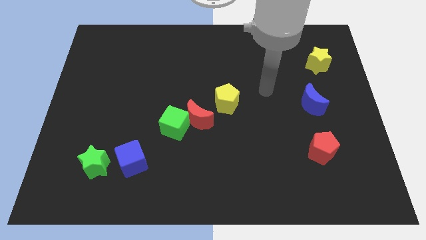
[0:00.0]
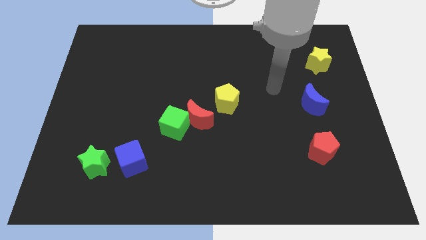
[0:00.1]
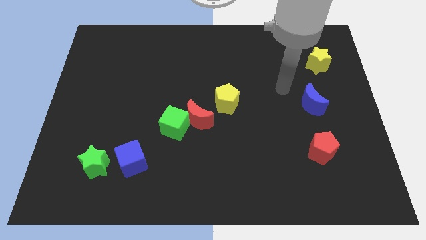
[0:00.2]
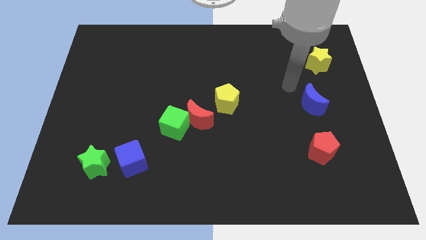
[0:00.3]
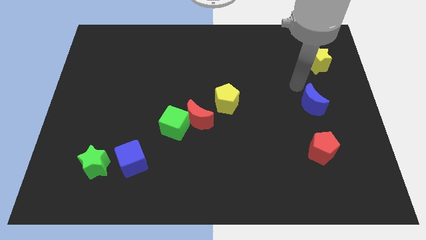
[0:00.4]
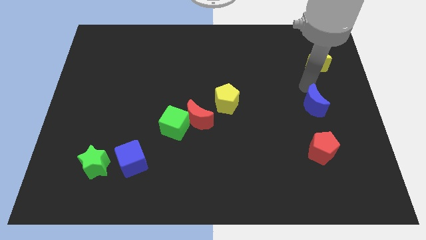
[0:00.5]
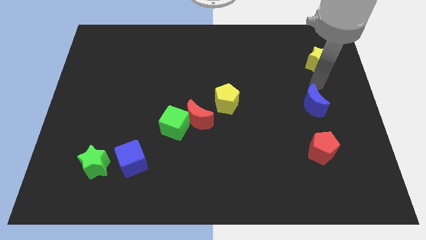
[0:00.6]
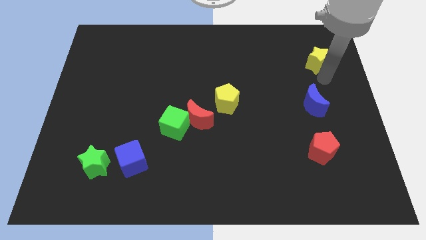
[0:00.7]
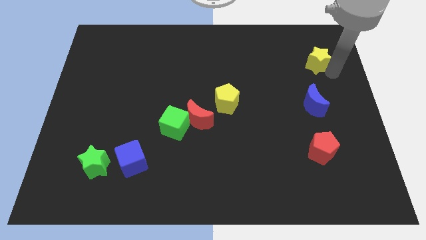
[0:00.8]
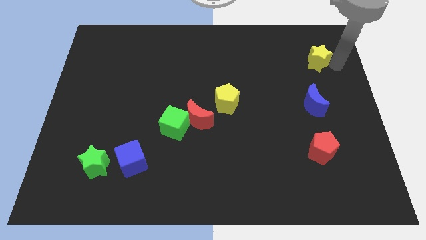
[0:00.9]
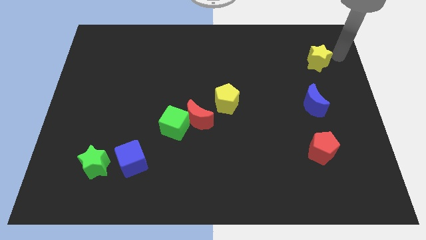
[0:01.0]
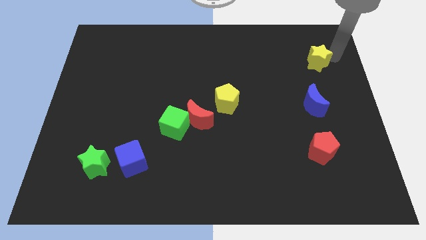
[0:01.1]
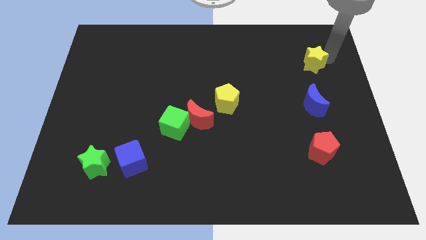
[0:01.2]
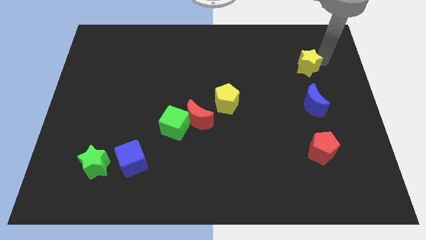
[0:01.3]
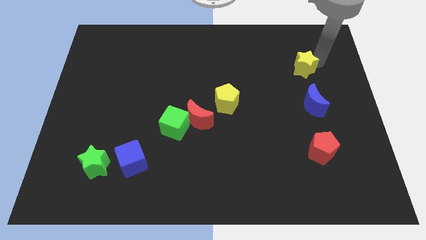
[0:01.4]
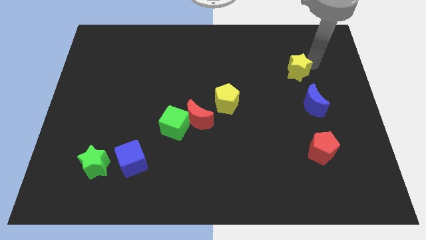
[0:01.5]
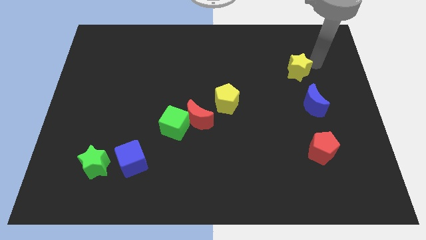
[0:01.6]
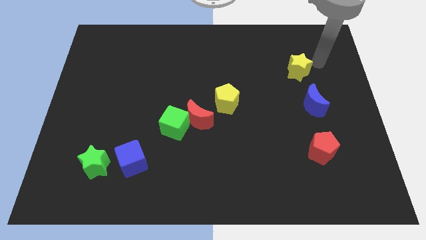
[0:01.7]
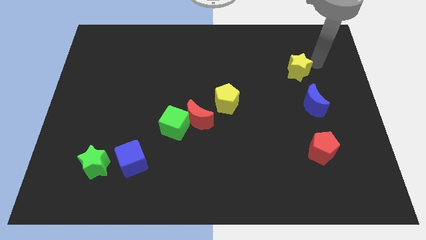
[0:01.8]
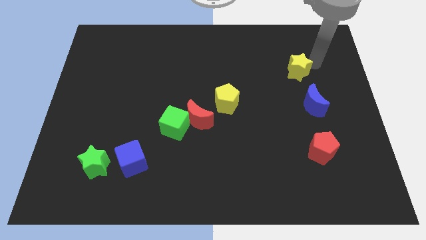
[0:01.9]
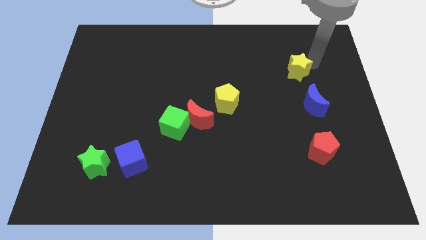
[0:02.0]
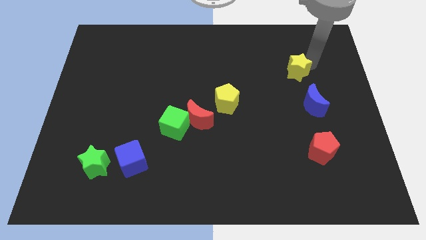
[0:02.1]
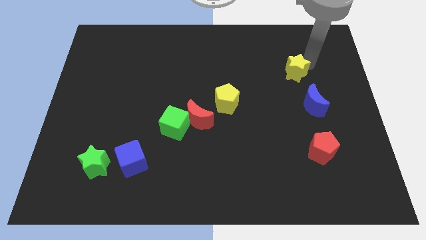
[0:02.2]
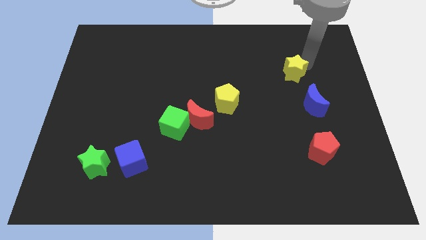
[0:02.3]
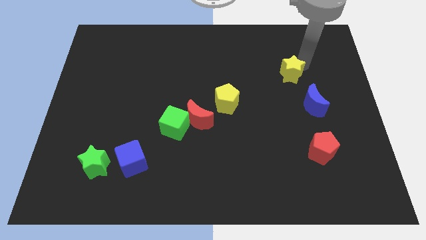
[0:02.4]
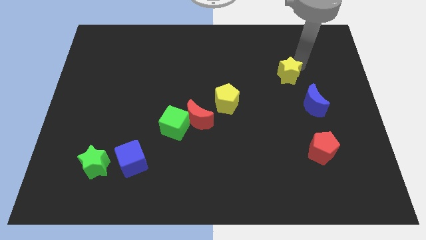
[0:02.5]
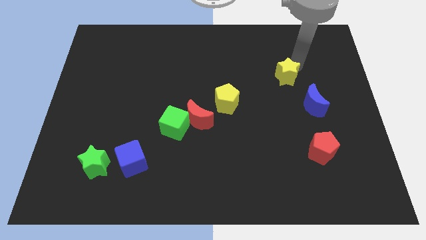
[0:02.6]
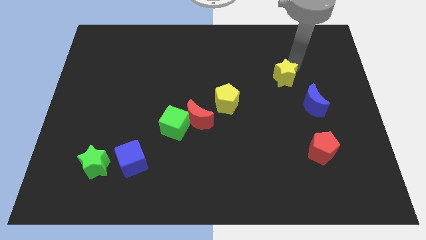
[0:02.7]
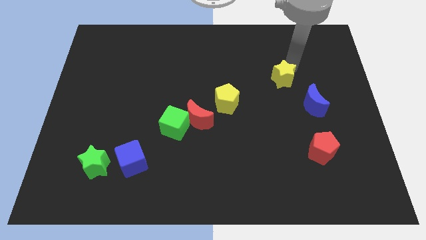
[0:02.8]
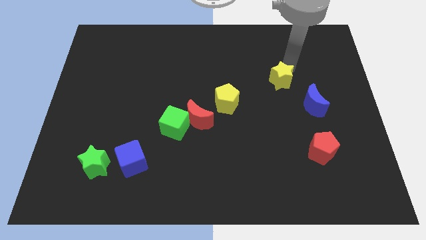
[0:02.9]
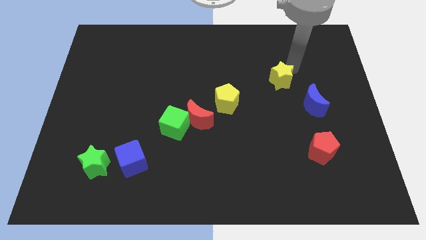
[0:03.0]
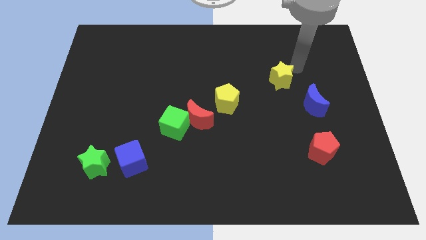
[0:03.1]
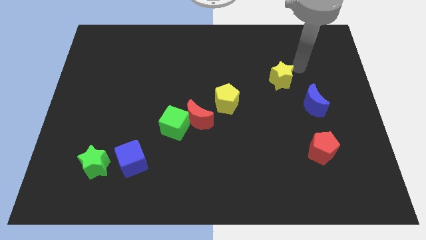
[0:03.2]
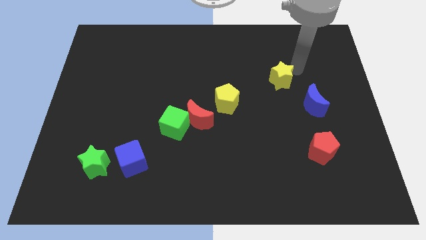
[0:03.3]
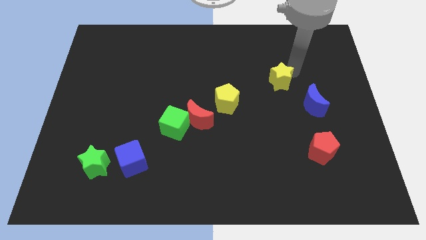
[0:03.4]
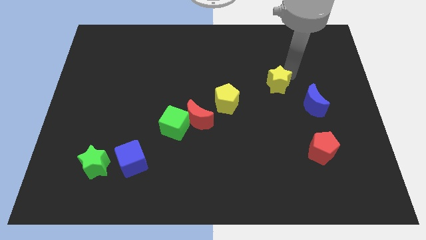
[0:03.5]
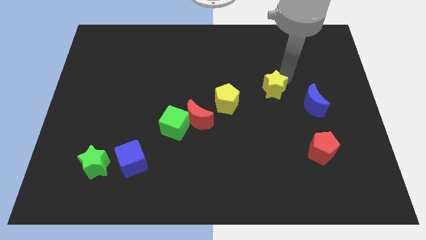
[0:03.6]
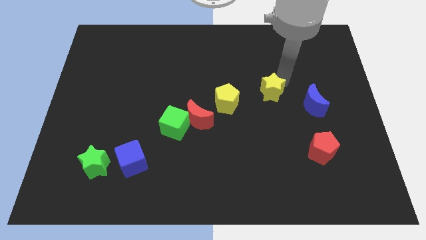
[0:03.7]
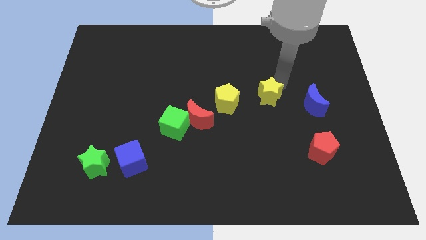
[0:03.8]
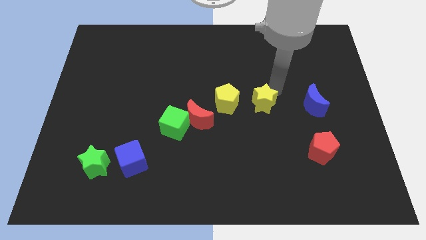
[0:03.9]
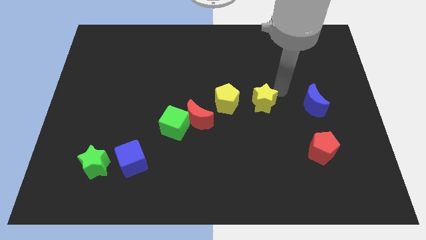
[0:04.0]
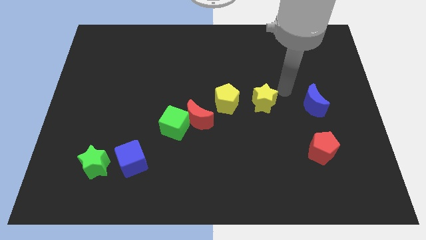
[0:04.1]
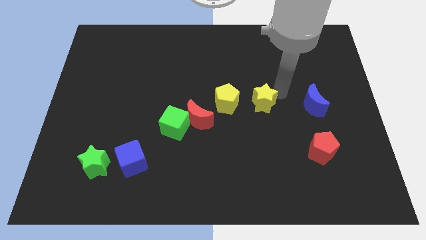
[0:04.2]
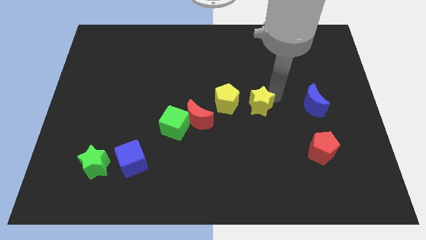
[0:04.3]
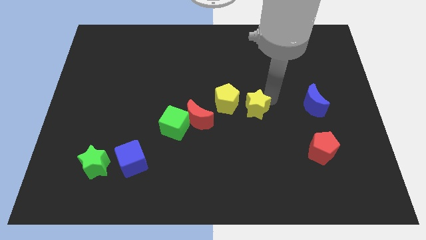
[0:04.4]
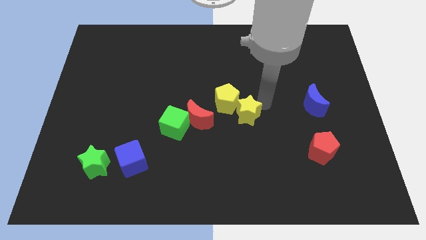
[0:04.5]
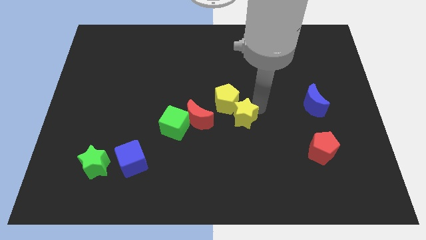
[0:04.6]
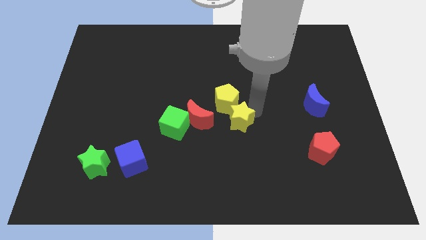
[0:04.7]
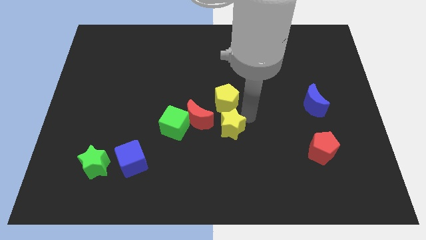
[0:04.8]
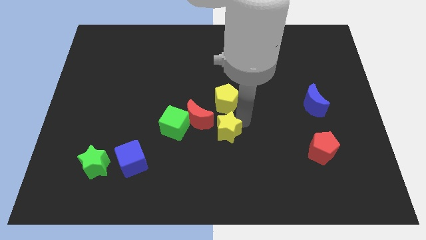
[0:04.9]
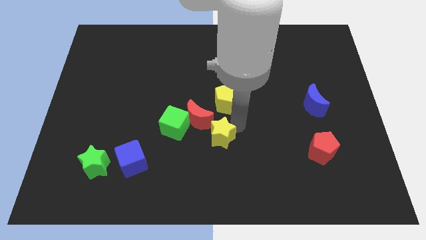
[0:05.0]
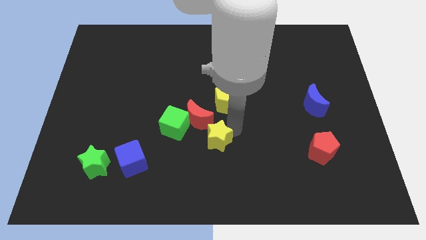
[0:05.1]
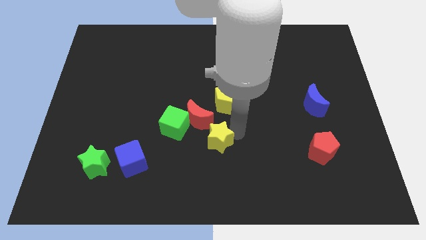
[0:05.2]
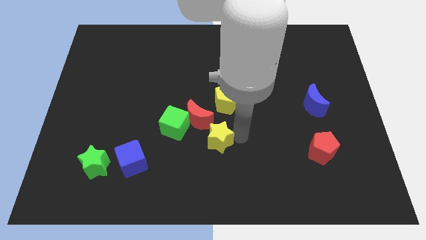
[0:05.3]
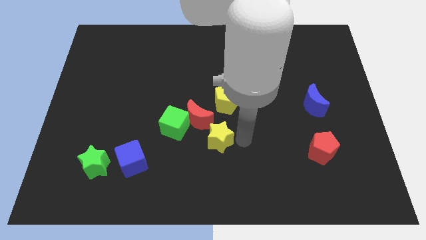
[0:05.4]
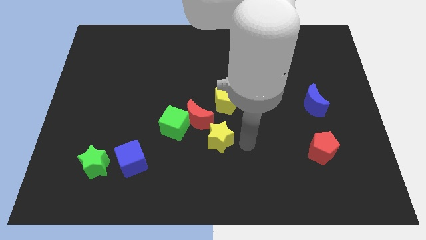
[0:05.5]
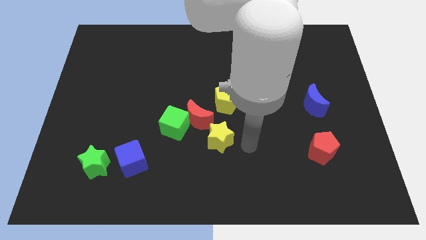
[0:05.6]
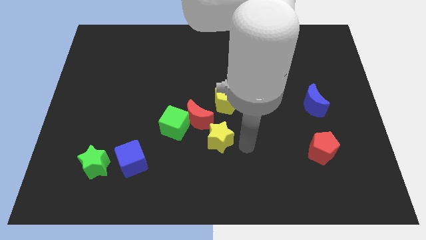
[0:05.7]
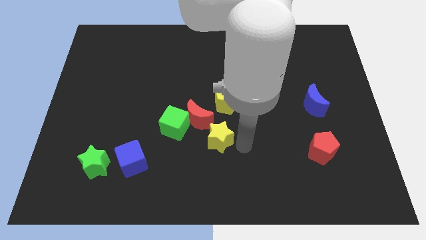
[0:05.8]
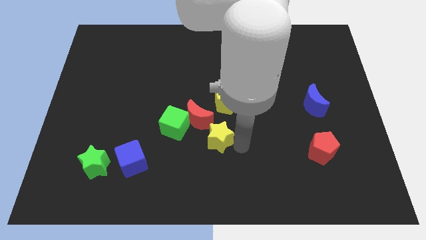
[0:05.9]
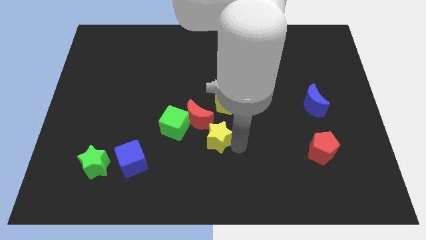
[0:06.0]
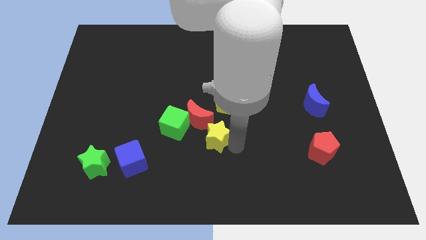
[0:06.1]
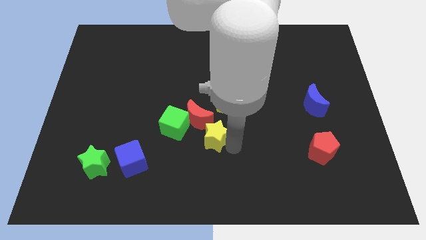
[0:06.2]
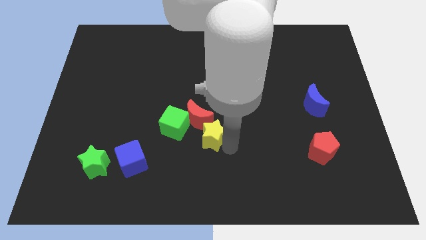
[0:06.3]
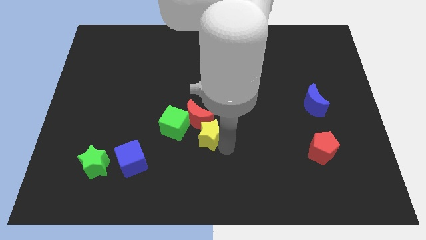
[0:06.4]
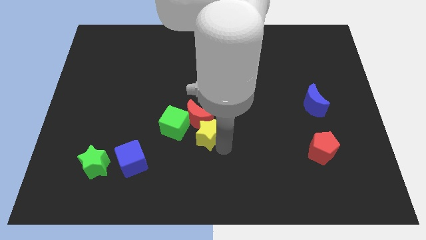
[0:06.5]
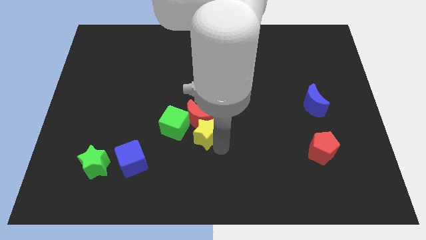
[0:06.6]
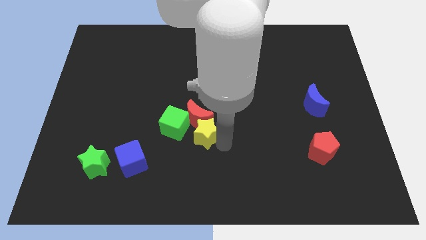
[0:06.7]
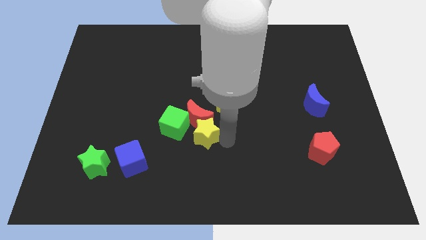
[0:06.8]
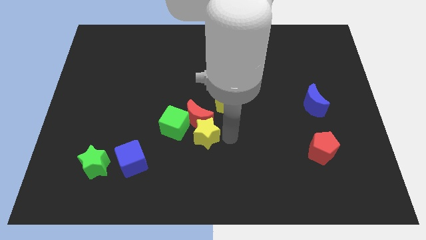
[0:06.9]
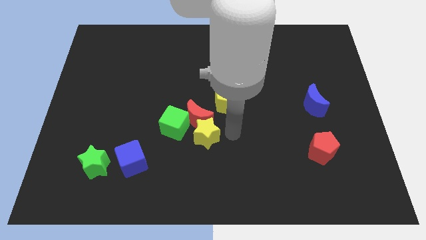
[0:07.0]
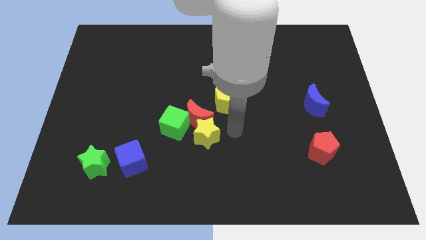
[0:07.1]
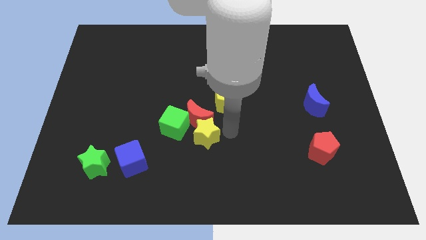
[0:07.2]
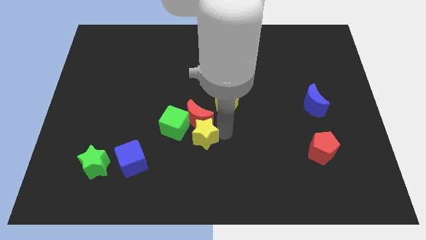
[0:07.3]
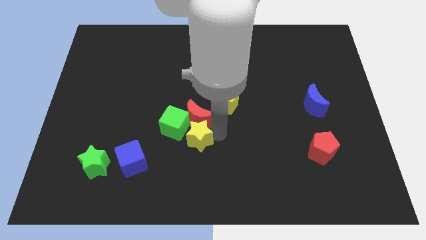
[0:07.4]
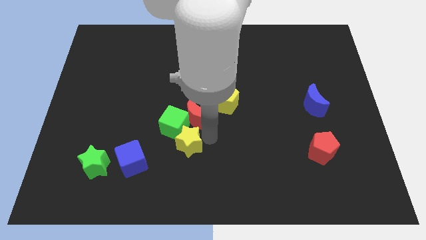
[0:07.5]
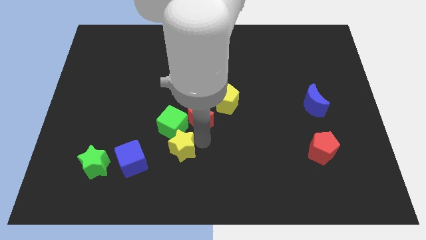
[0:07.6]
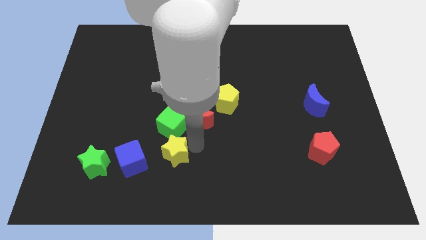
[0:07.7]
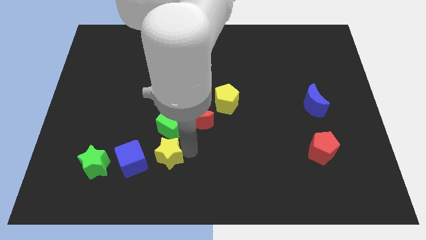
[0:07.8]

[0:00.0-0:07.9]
slide the yellow star diagonally up and to the right of the blue cube
